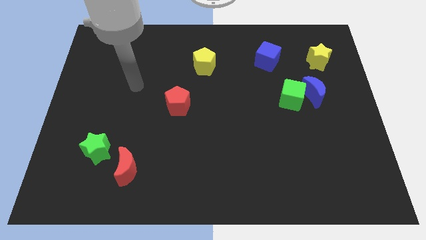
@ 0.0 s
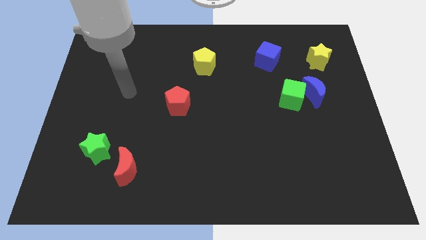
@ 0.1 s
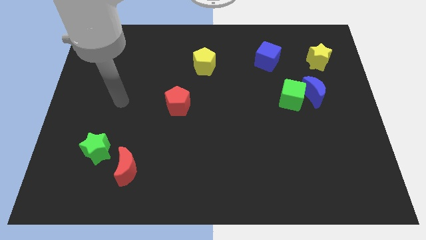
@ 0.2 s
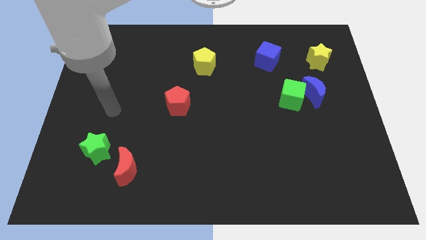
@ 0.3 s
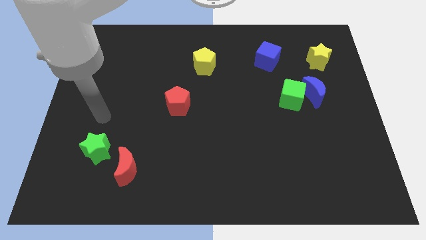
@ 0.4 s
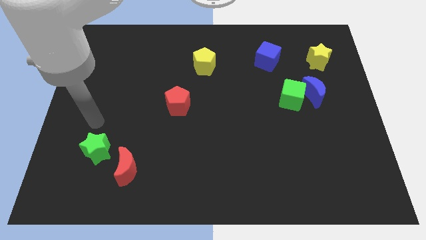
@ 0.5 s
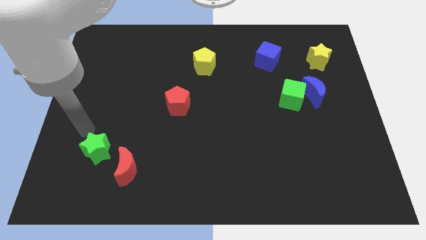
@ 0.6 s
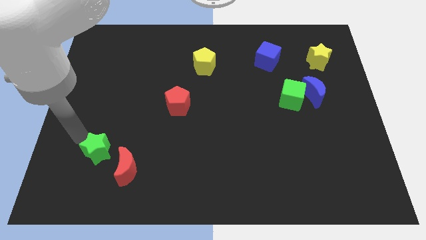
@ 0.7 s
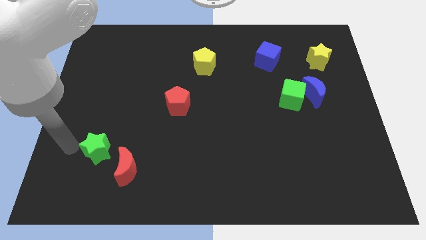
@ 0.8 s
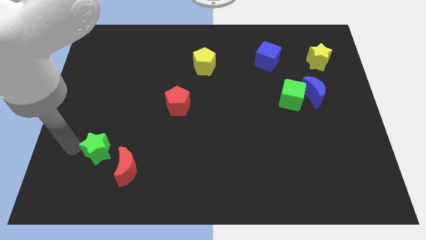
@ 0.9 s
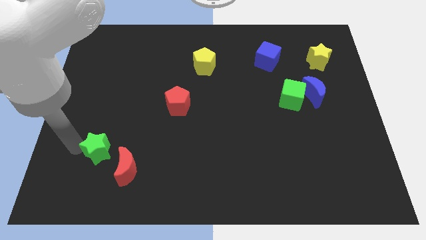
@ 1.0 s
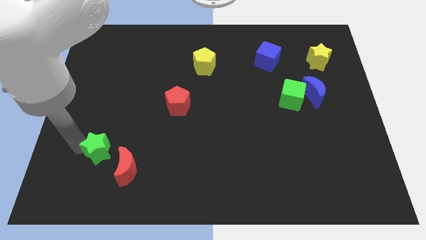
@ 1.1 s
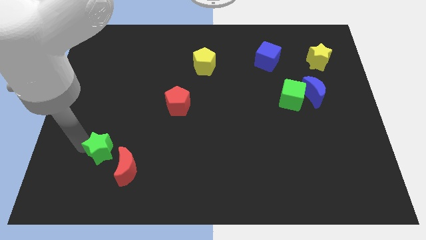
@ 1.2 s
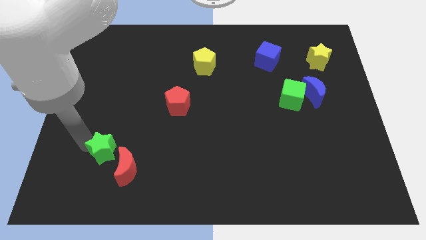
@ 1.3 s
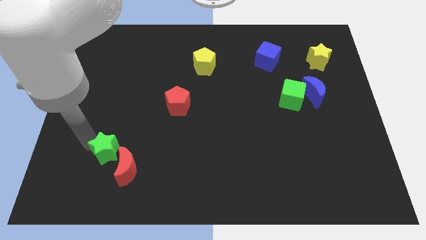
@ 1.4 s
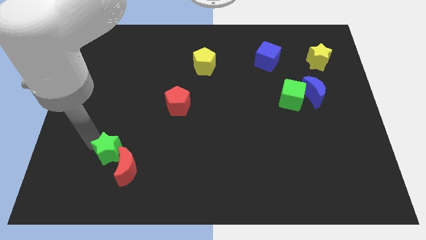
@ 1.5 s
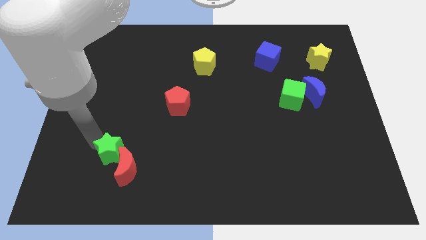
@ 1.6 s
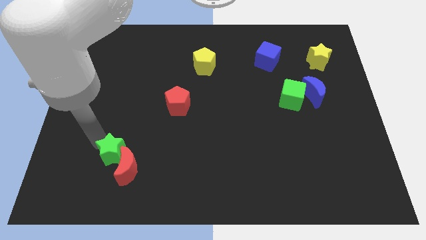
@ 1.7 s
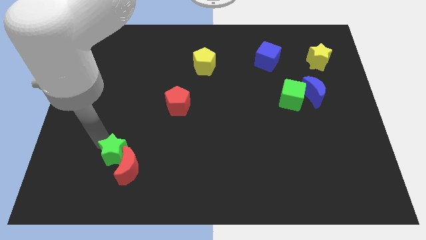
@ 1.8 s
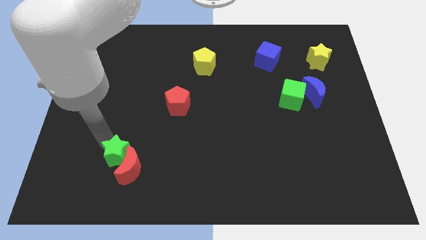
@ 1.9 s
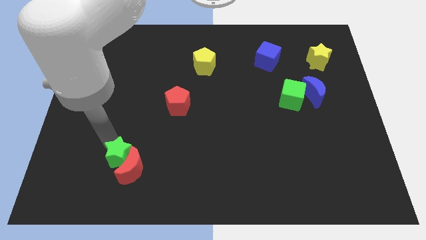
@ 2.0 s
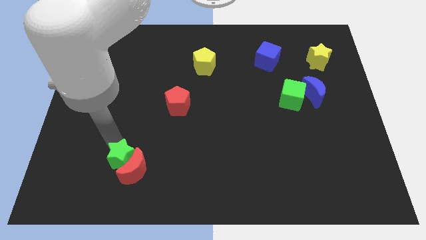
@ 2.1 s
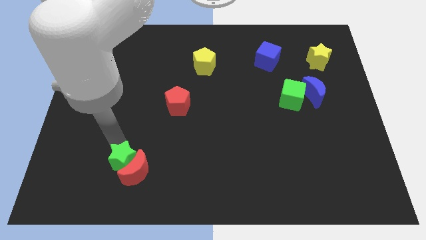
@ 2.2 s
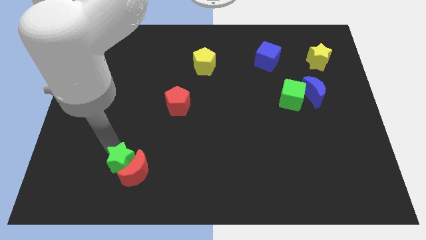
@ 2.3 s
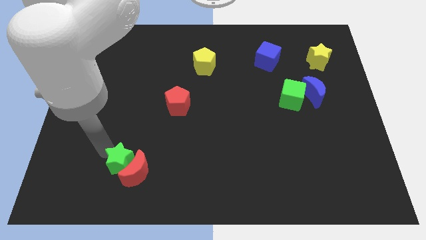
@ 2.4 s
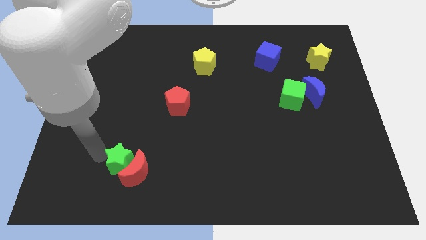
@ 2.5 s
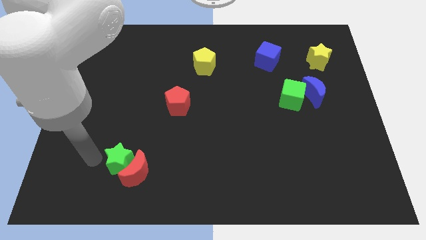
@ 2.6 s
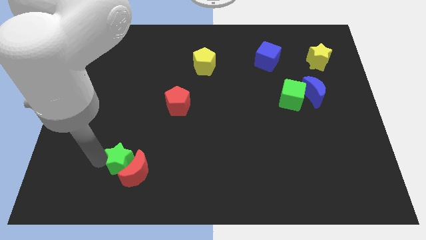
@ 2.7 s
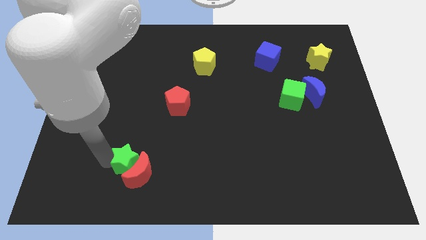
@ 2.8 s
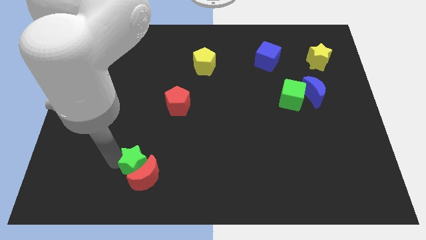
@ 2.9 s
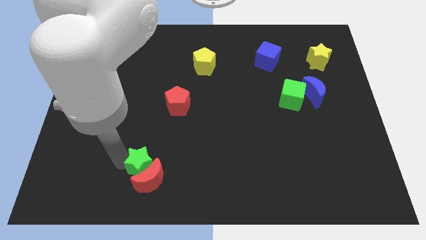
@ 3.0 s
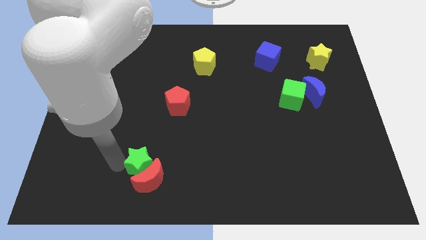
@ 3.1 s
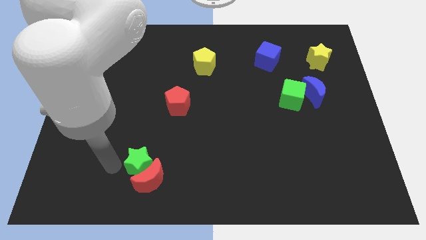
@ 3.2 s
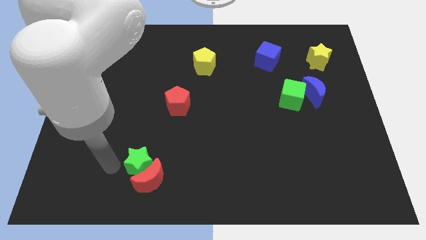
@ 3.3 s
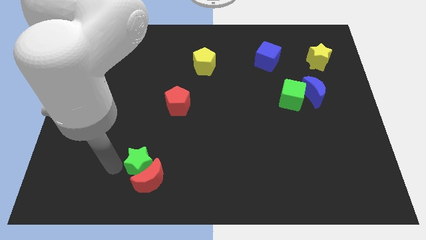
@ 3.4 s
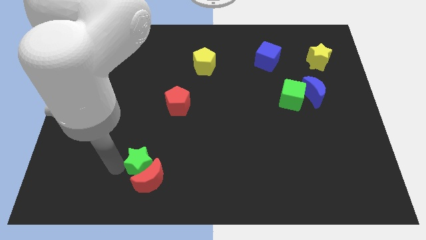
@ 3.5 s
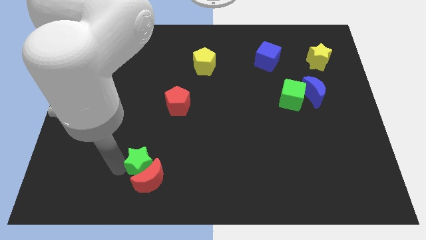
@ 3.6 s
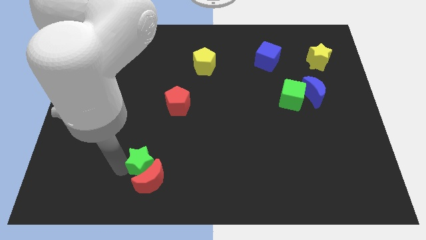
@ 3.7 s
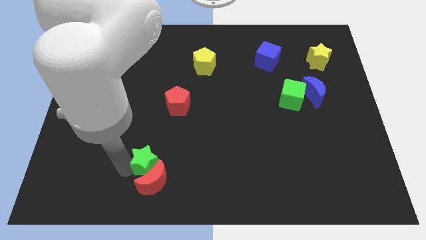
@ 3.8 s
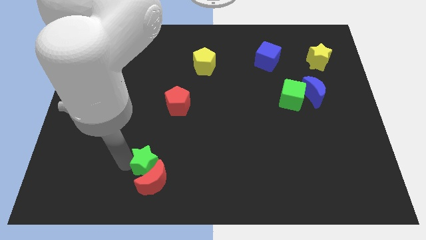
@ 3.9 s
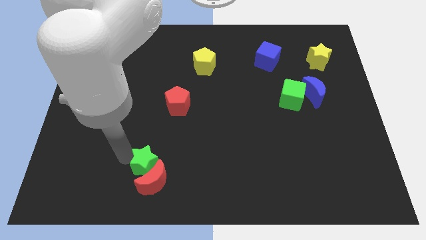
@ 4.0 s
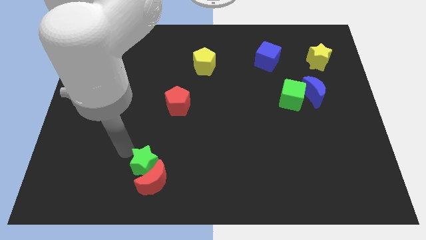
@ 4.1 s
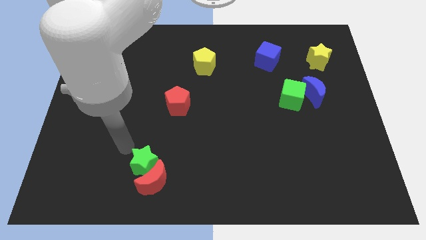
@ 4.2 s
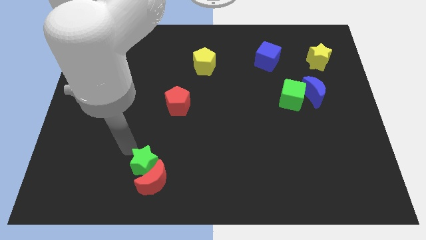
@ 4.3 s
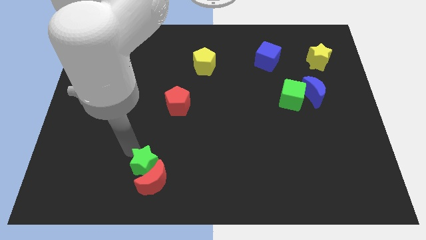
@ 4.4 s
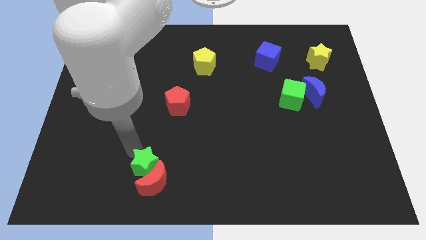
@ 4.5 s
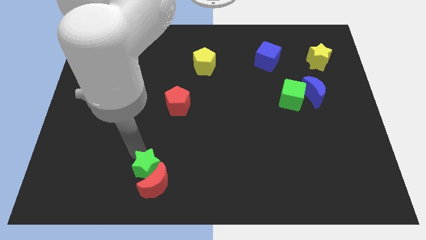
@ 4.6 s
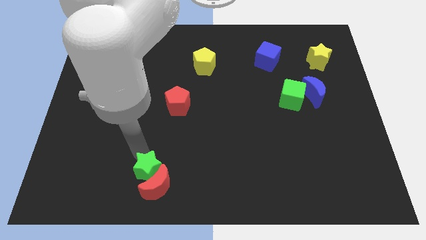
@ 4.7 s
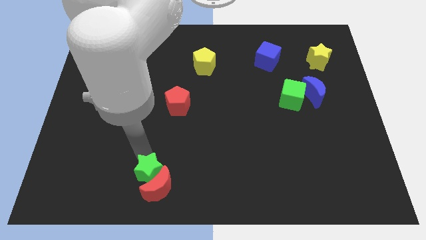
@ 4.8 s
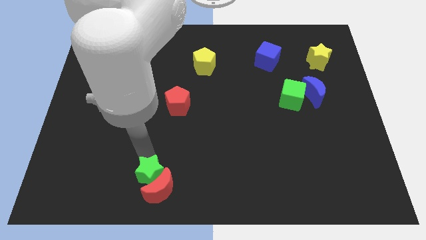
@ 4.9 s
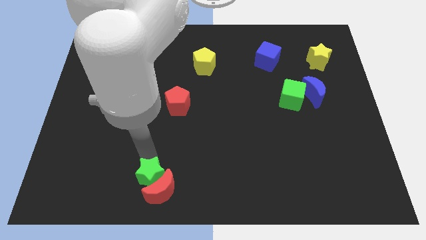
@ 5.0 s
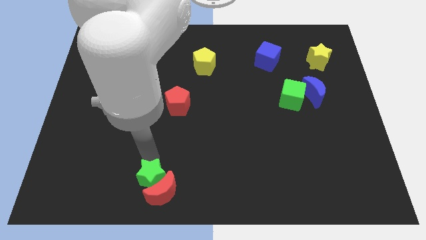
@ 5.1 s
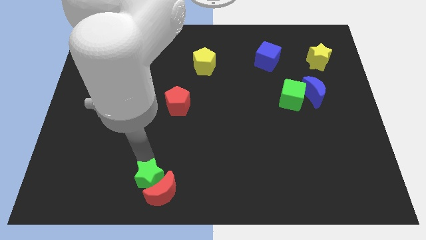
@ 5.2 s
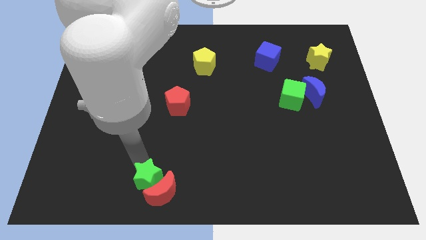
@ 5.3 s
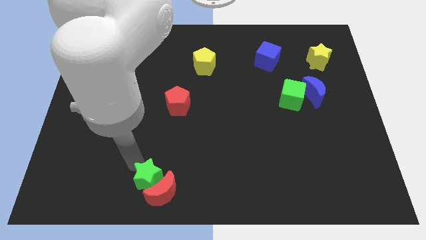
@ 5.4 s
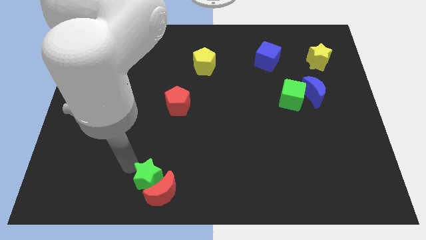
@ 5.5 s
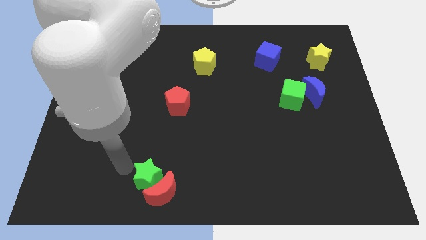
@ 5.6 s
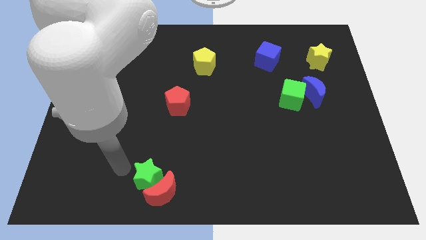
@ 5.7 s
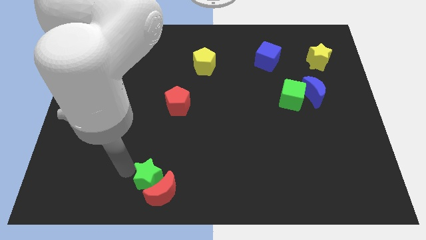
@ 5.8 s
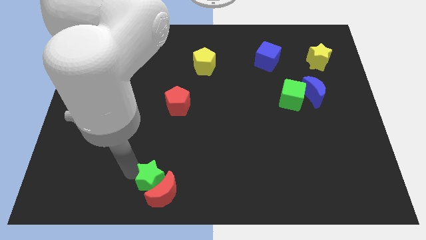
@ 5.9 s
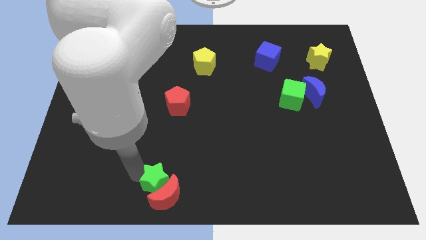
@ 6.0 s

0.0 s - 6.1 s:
move the green star to the bottom side
